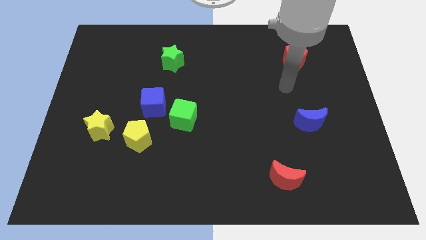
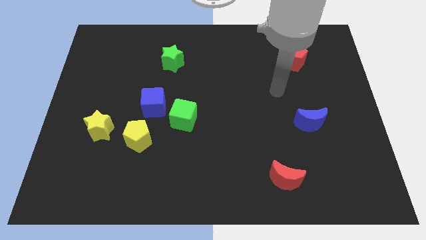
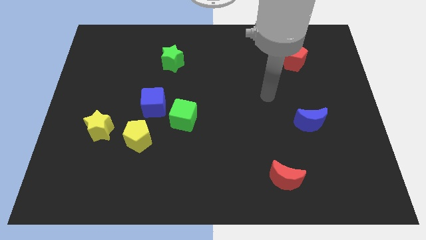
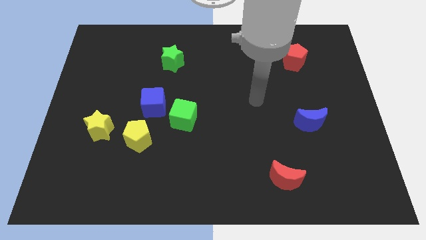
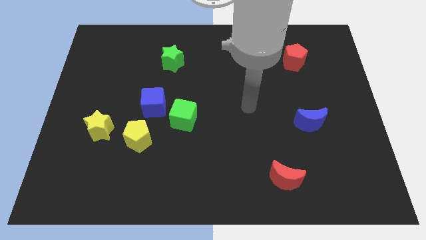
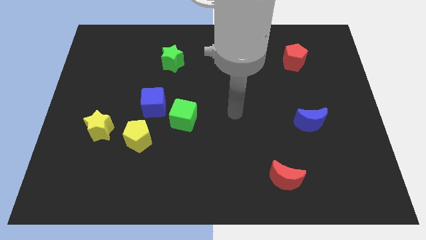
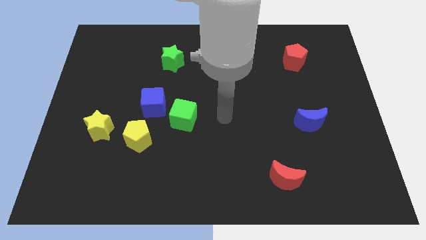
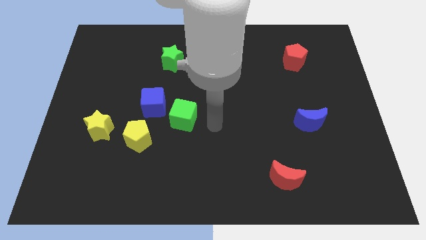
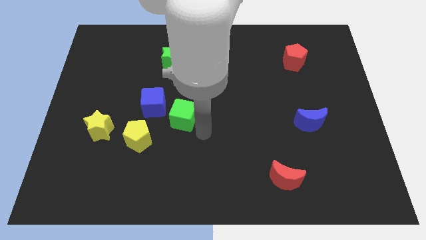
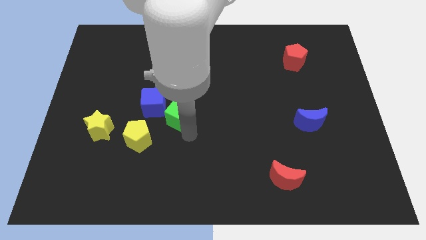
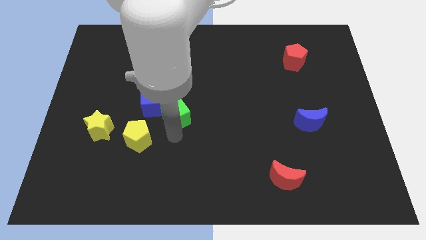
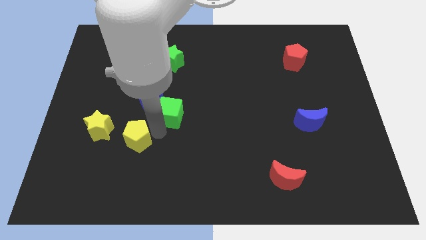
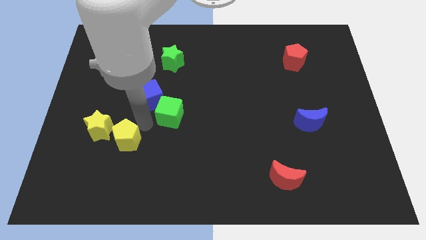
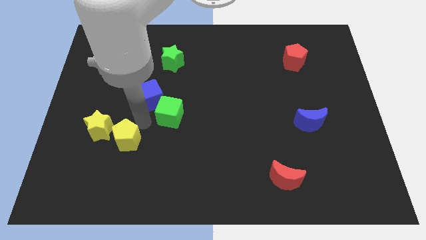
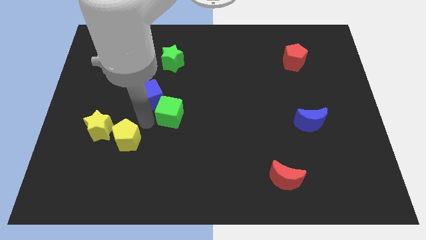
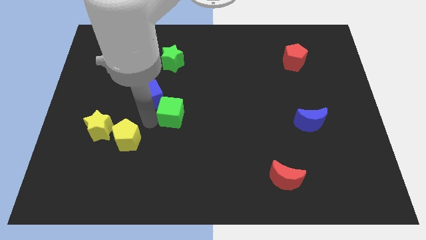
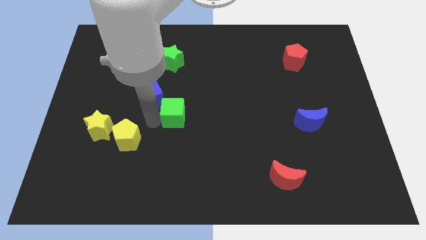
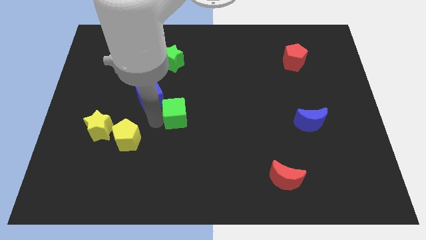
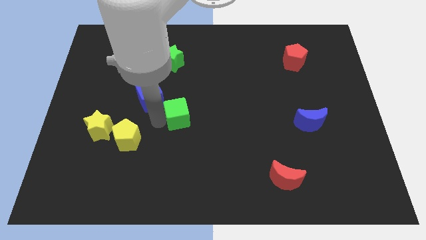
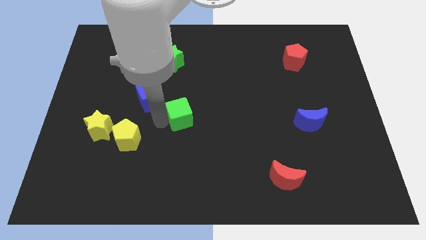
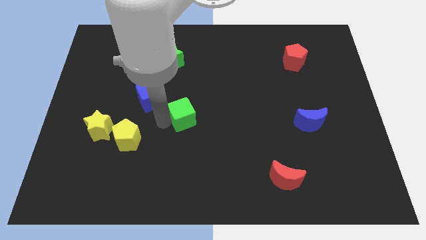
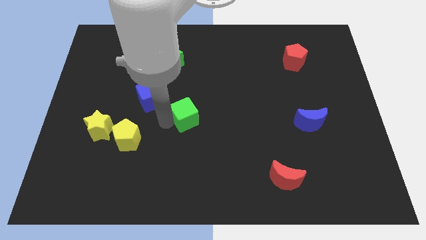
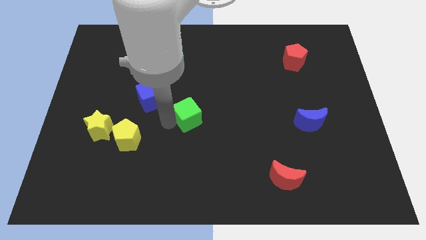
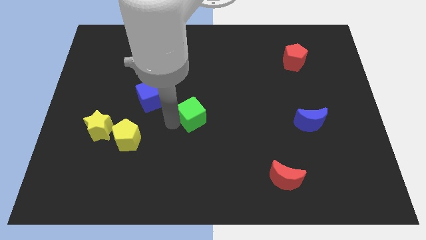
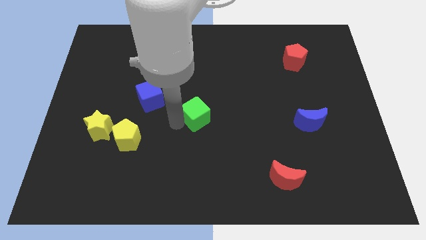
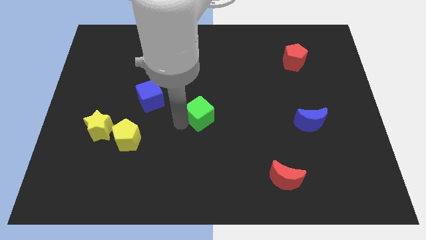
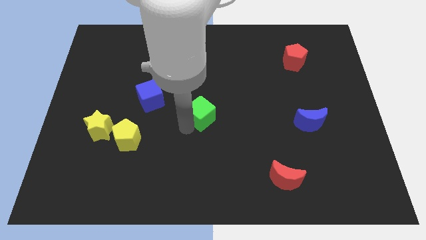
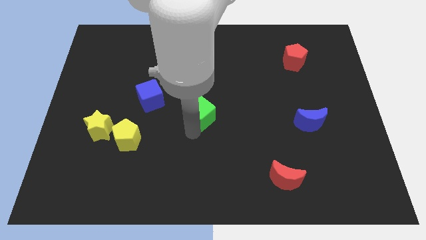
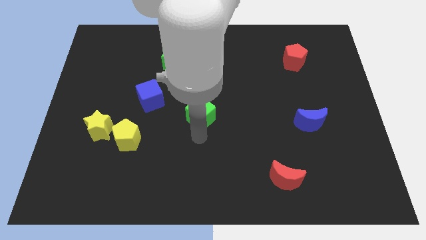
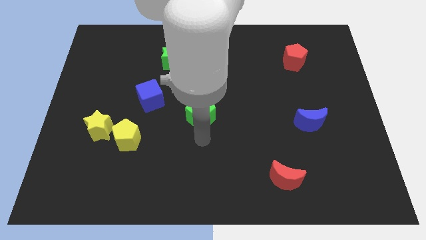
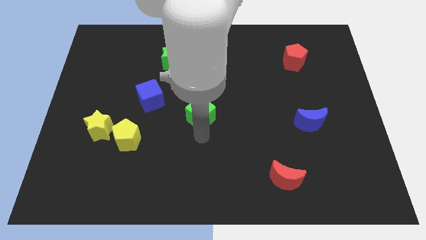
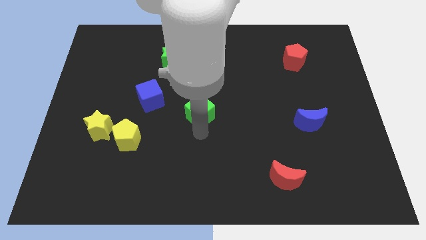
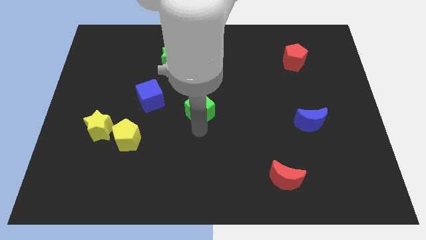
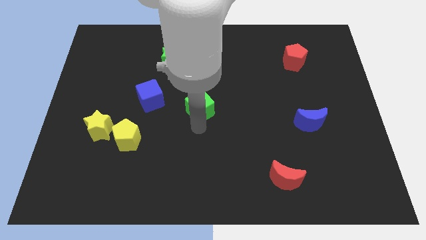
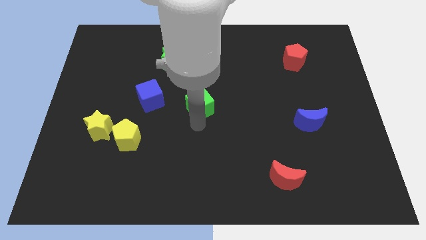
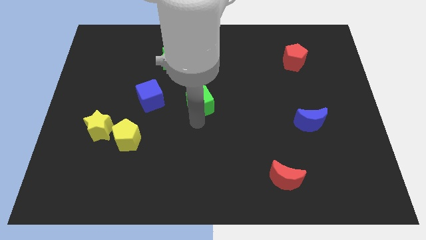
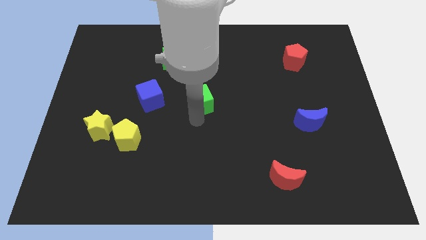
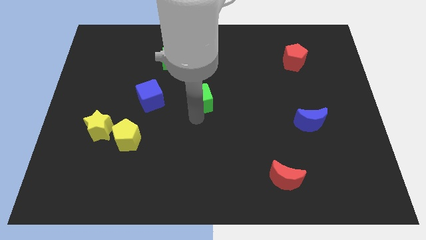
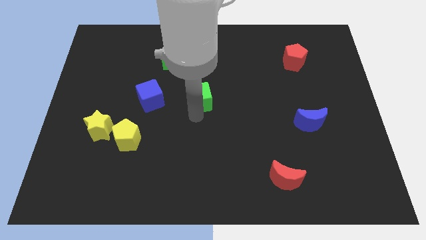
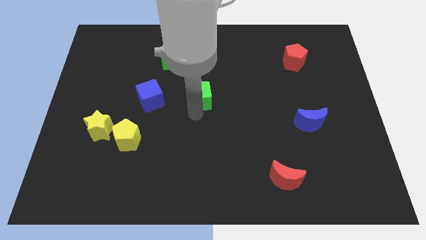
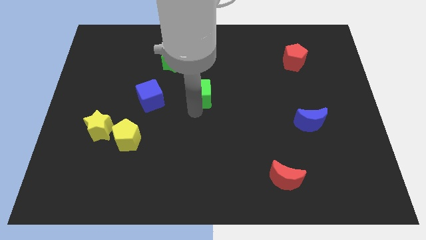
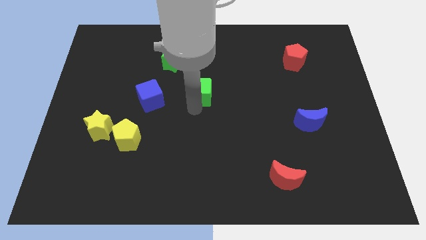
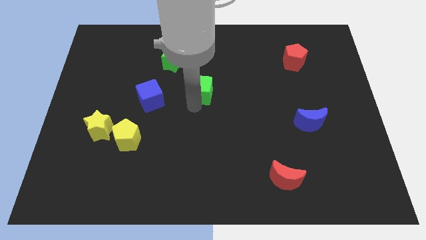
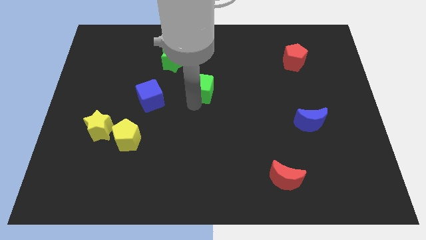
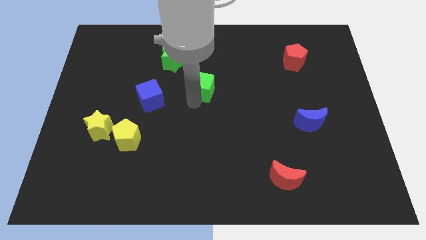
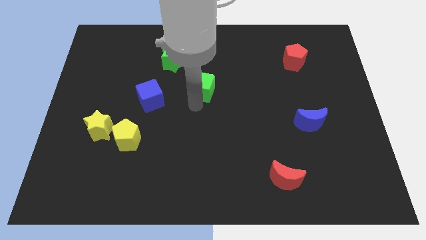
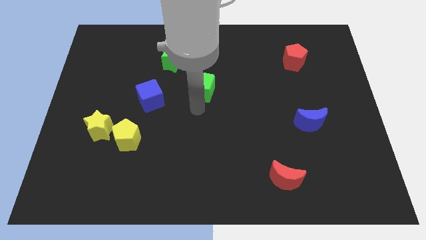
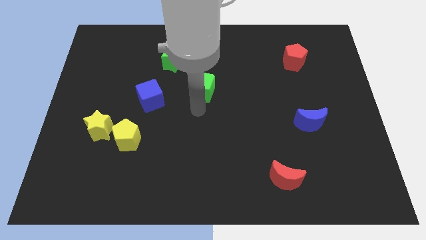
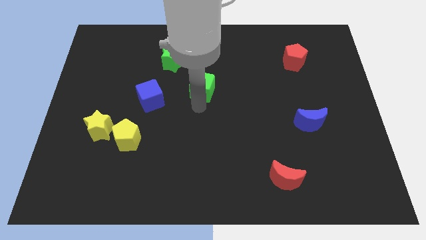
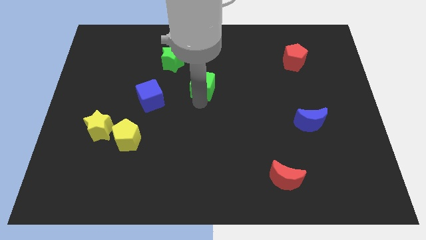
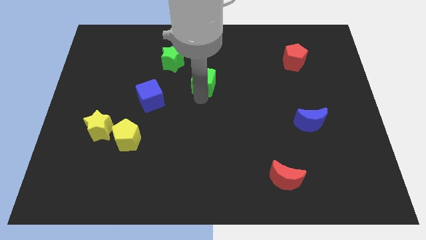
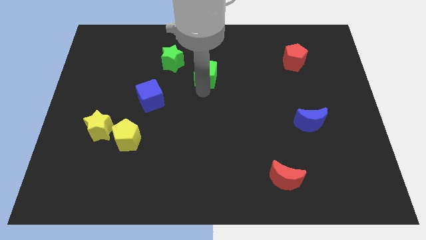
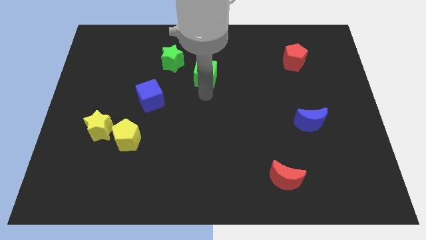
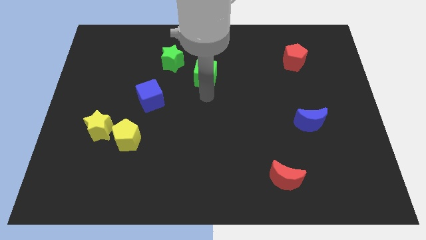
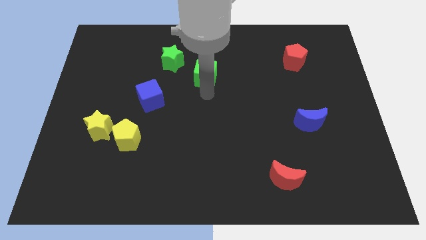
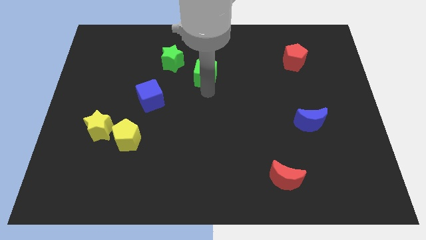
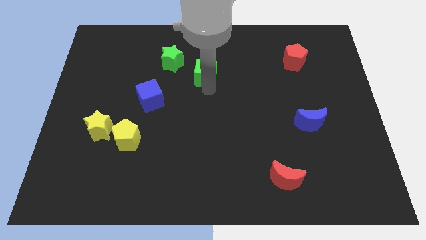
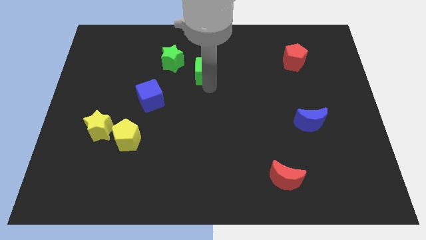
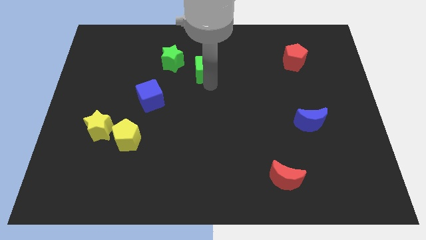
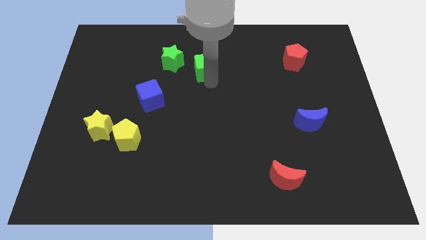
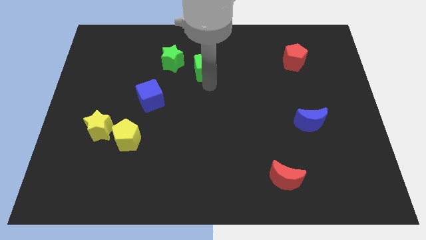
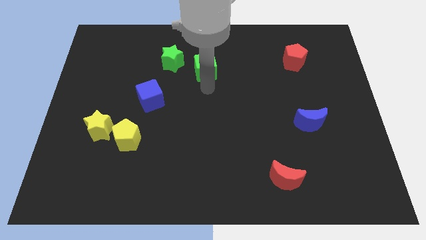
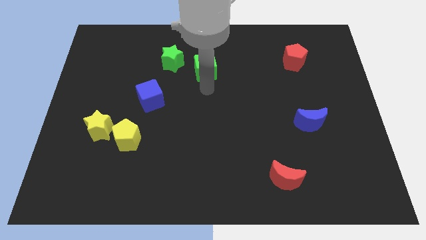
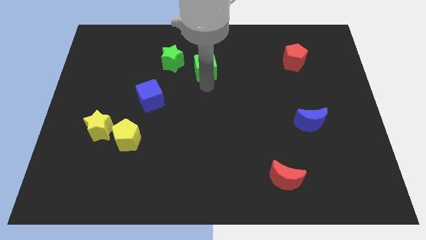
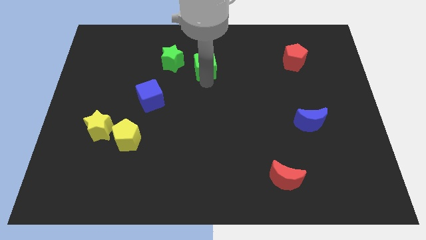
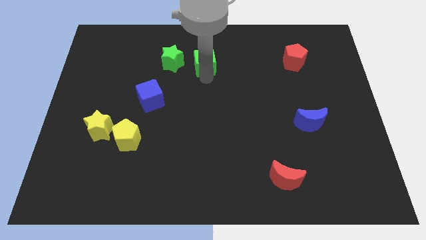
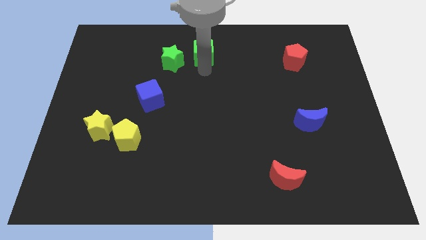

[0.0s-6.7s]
move the green cube to the towards your base
